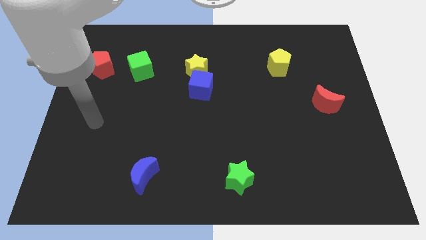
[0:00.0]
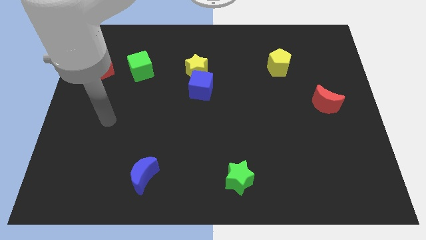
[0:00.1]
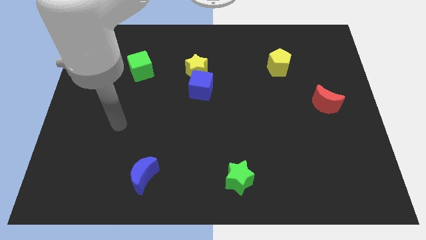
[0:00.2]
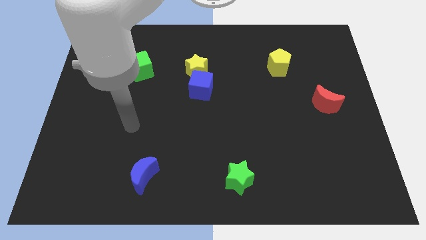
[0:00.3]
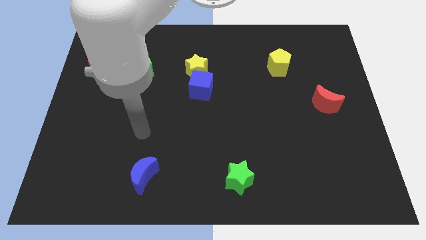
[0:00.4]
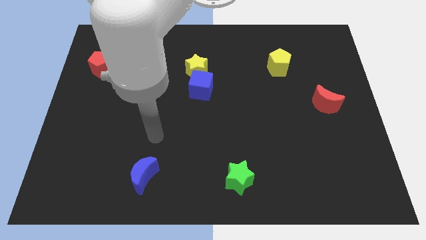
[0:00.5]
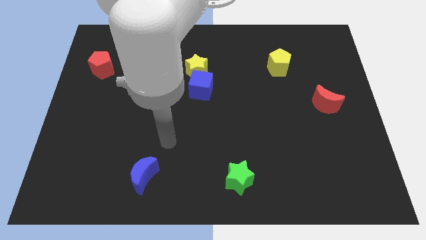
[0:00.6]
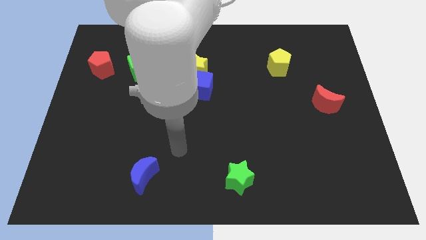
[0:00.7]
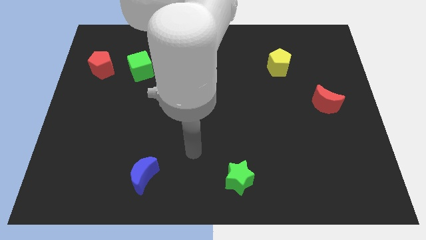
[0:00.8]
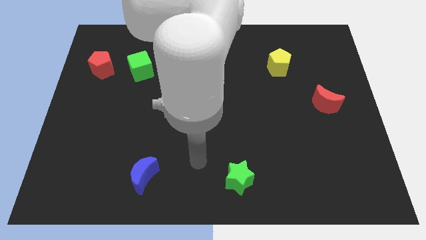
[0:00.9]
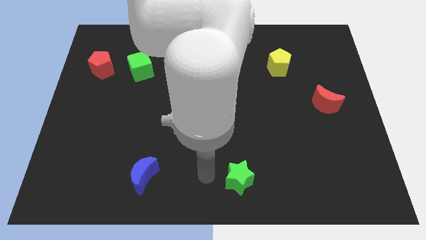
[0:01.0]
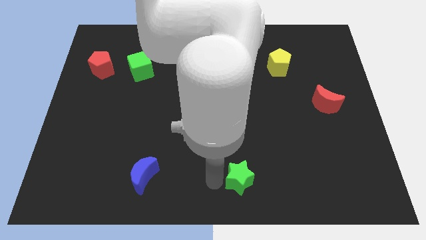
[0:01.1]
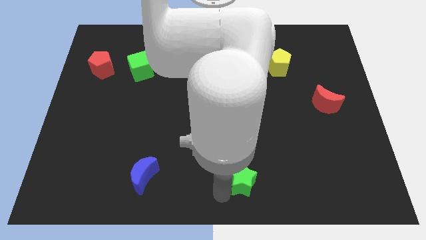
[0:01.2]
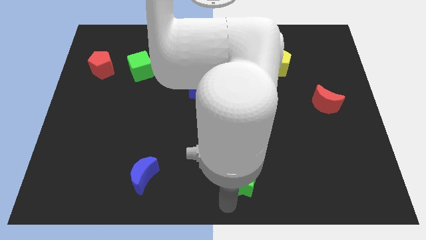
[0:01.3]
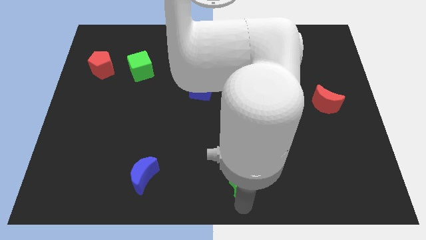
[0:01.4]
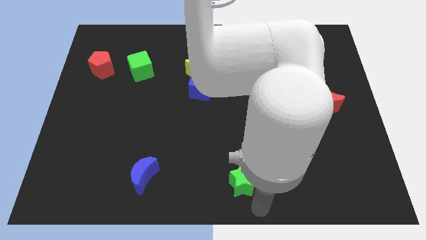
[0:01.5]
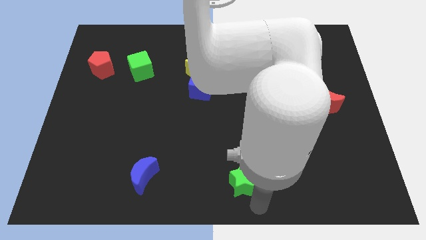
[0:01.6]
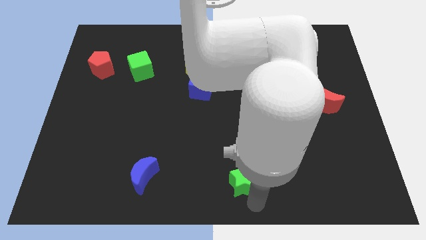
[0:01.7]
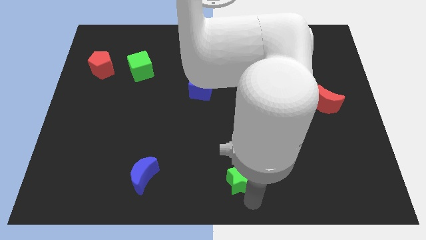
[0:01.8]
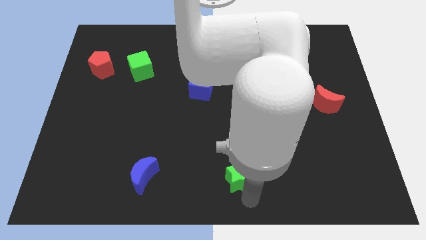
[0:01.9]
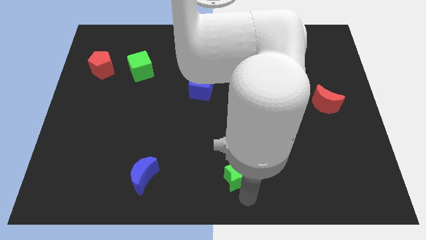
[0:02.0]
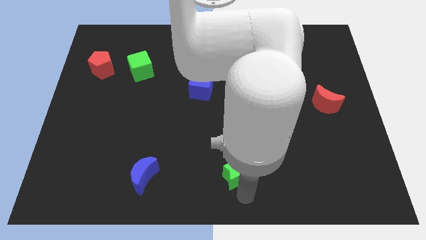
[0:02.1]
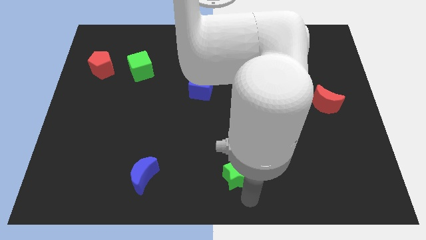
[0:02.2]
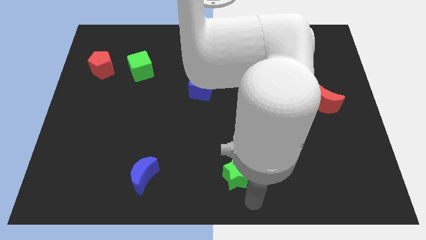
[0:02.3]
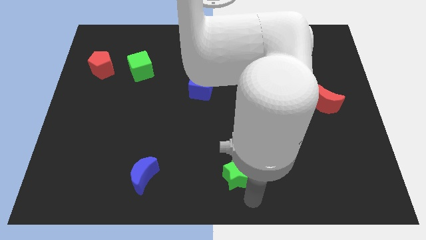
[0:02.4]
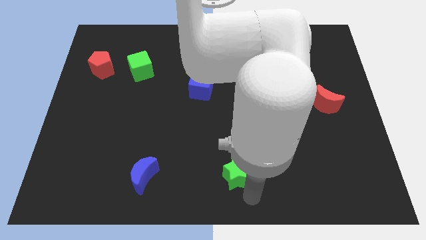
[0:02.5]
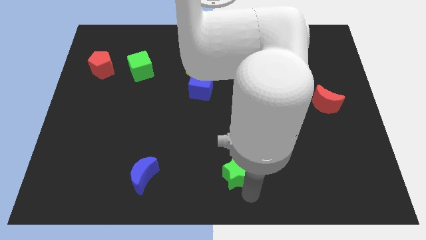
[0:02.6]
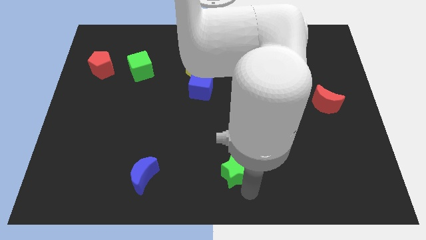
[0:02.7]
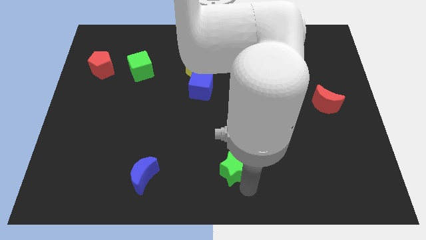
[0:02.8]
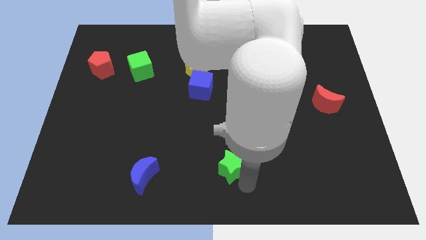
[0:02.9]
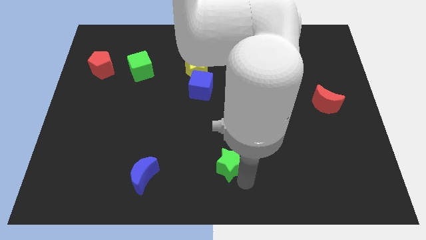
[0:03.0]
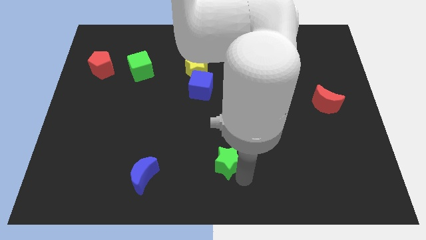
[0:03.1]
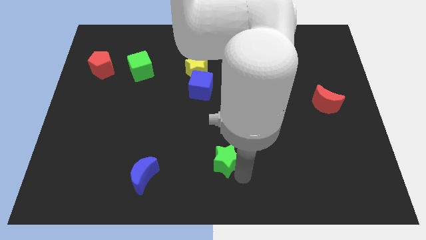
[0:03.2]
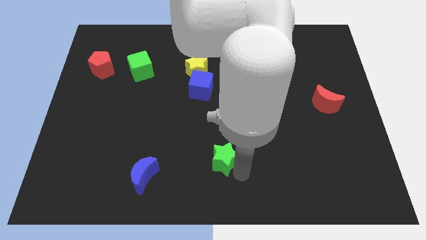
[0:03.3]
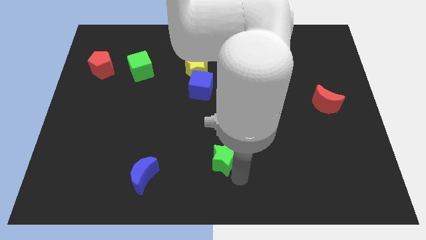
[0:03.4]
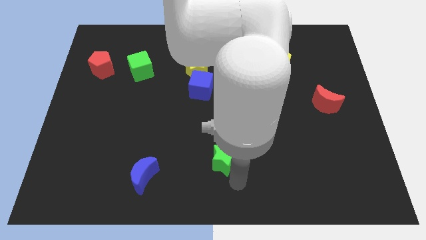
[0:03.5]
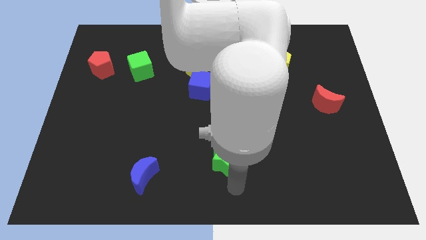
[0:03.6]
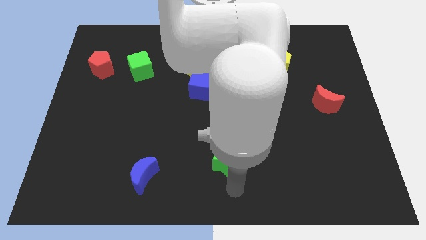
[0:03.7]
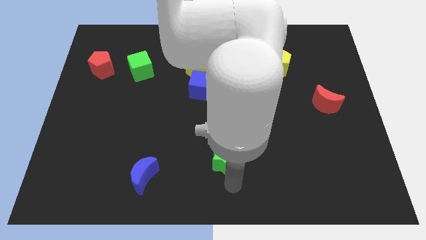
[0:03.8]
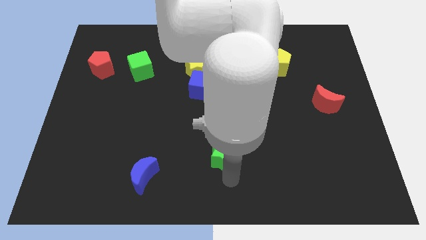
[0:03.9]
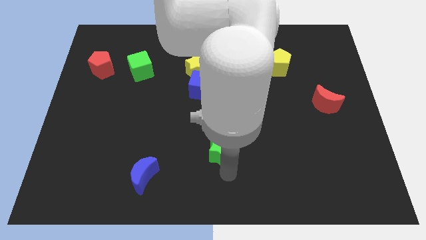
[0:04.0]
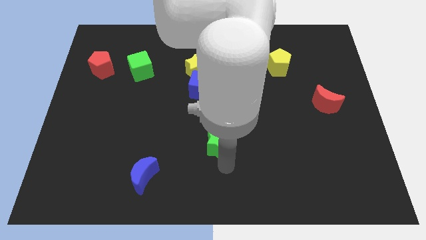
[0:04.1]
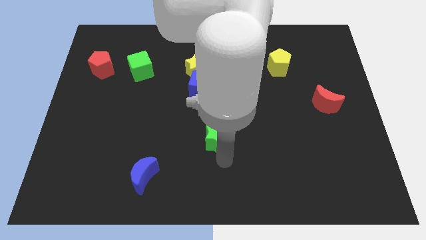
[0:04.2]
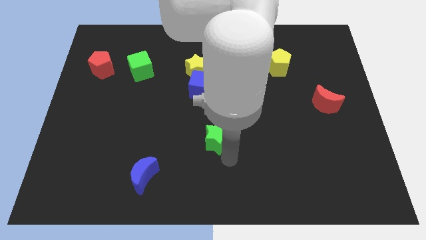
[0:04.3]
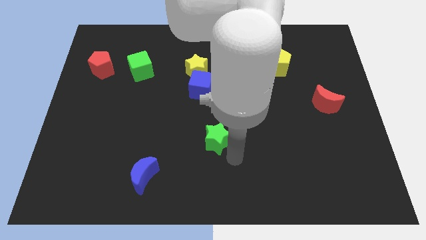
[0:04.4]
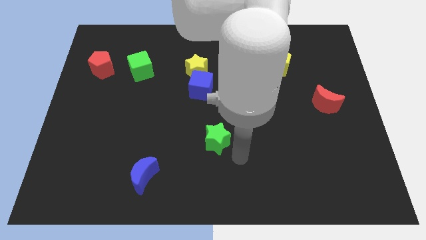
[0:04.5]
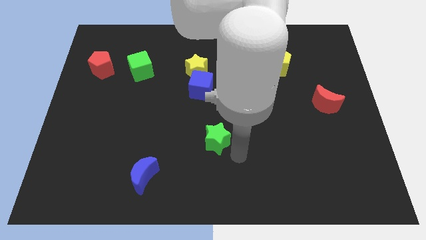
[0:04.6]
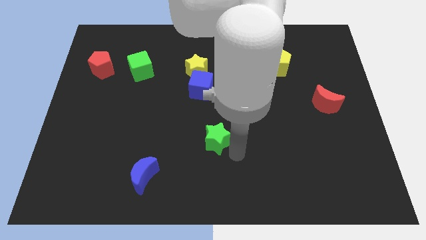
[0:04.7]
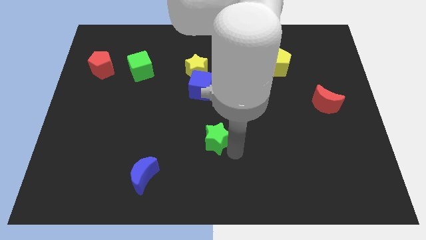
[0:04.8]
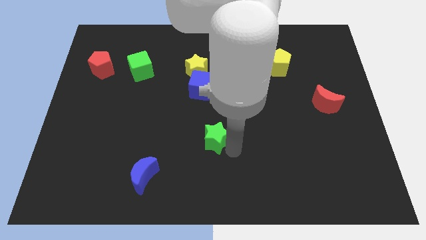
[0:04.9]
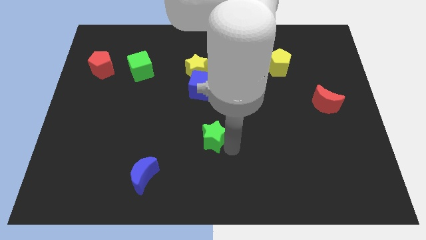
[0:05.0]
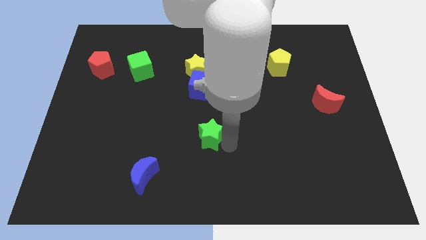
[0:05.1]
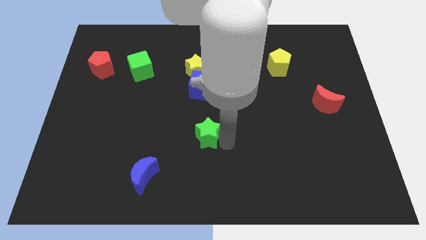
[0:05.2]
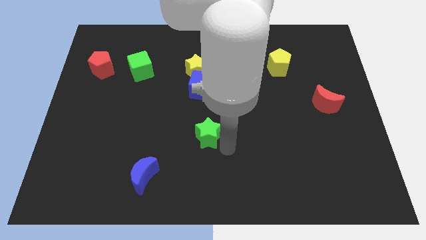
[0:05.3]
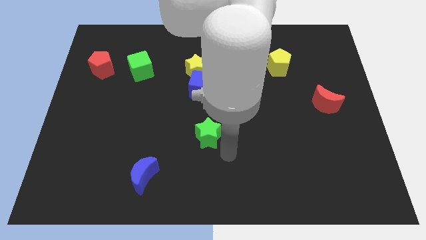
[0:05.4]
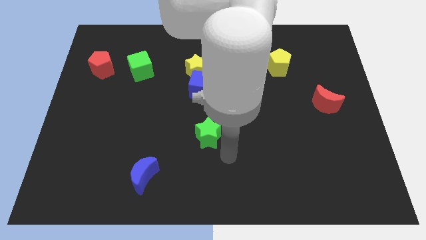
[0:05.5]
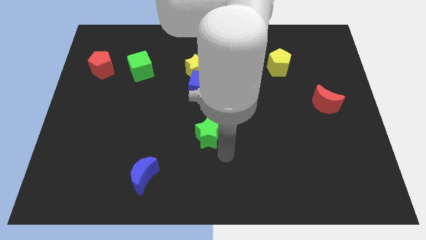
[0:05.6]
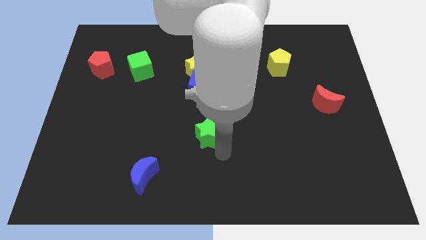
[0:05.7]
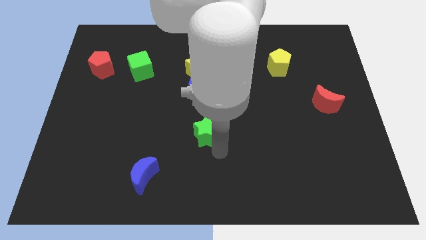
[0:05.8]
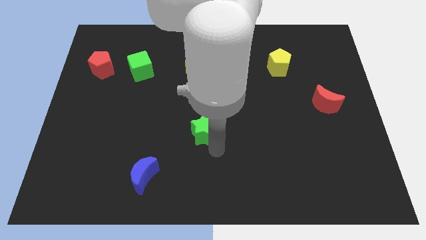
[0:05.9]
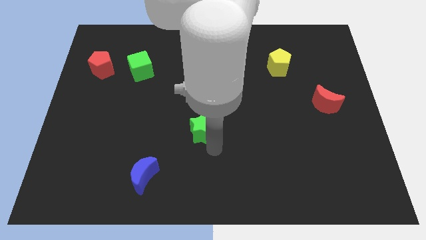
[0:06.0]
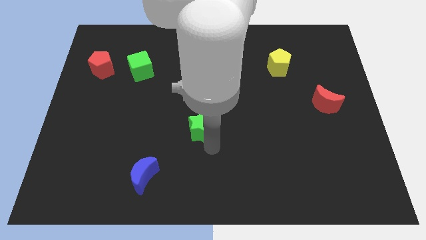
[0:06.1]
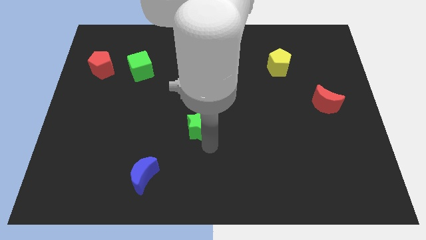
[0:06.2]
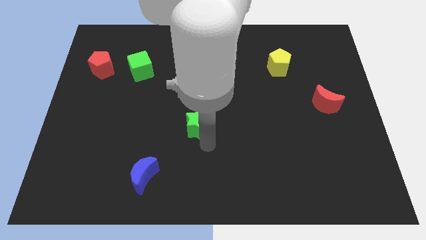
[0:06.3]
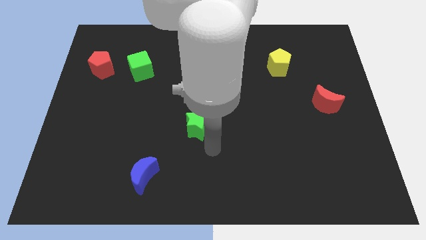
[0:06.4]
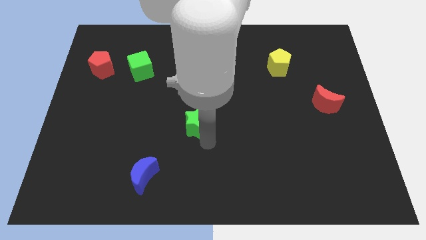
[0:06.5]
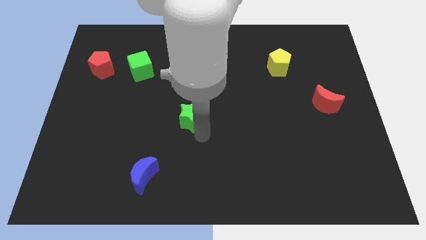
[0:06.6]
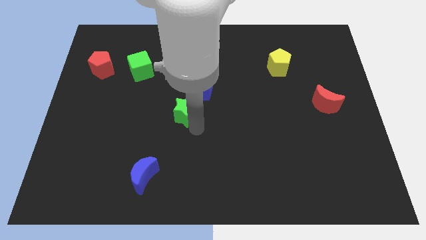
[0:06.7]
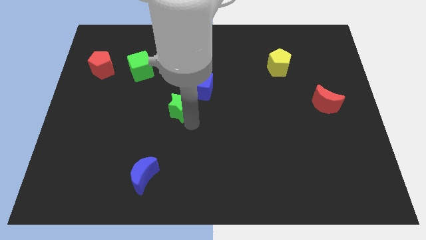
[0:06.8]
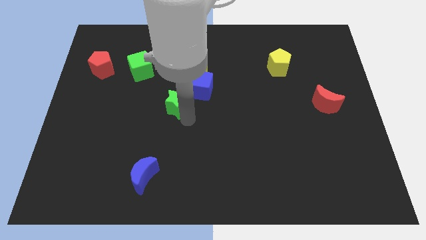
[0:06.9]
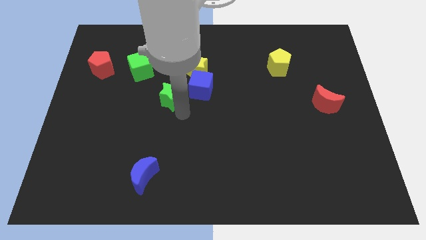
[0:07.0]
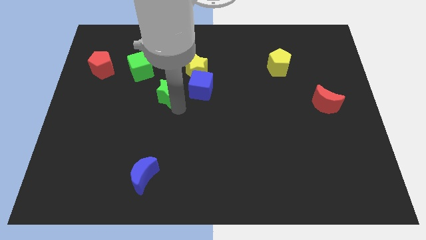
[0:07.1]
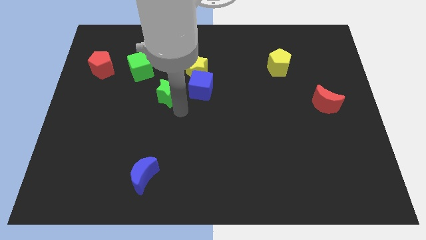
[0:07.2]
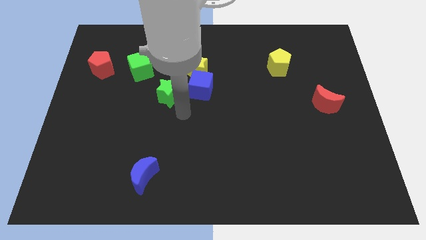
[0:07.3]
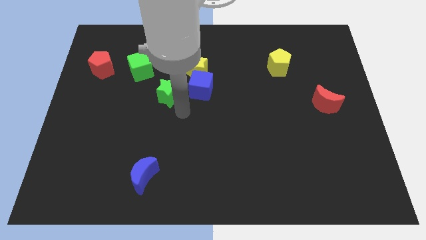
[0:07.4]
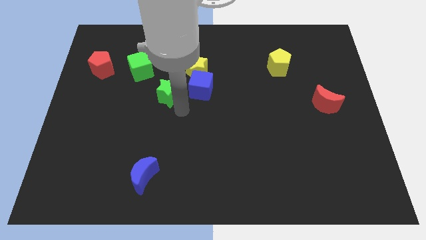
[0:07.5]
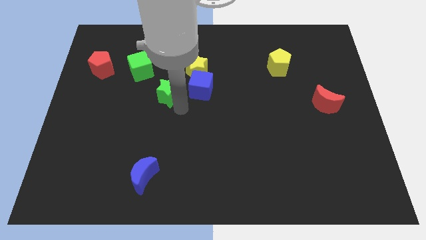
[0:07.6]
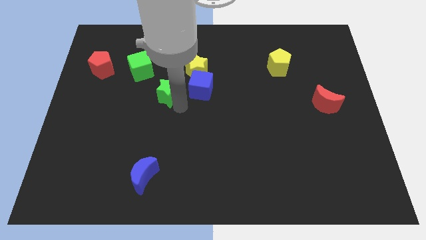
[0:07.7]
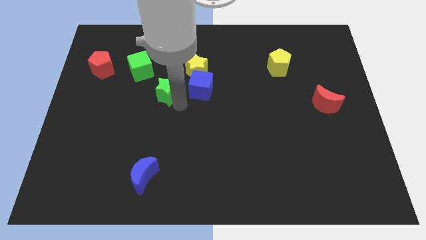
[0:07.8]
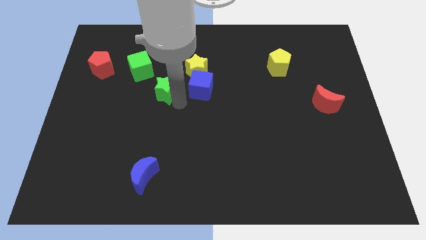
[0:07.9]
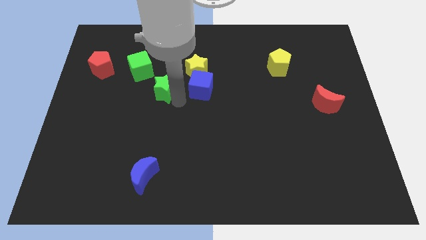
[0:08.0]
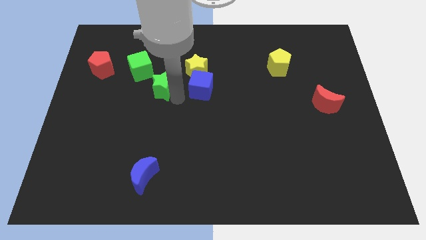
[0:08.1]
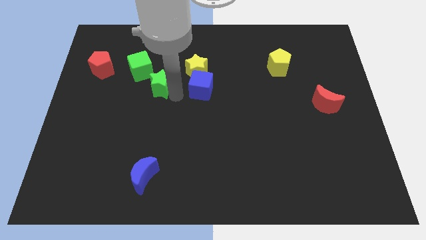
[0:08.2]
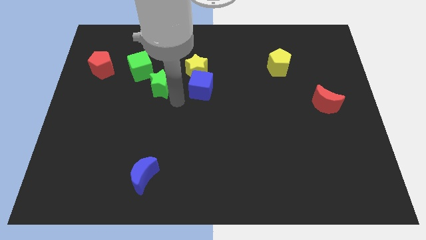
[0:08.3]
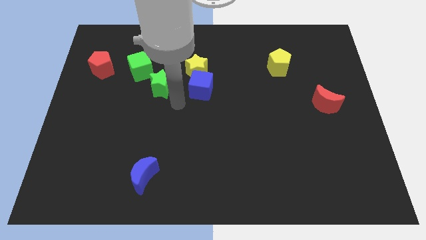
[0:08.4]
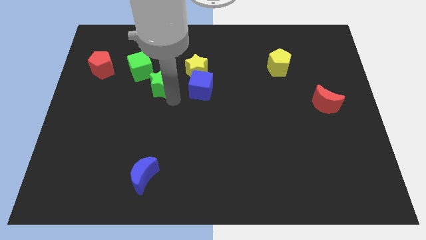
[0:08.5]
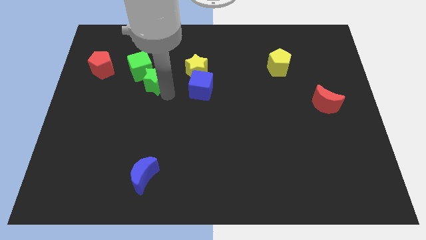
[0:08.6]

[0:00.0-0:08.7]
move the green star to the green cube
